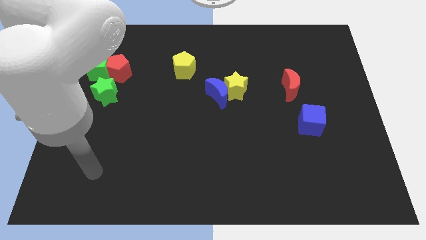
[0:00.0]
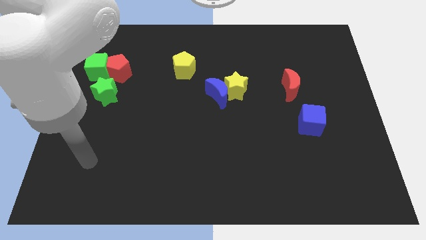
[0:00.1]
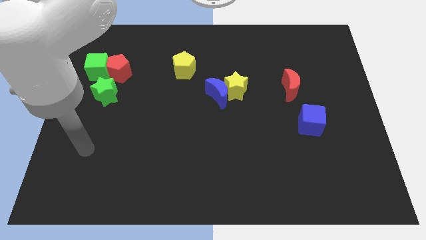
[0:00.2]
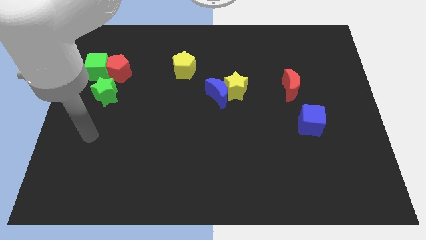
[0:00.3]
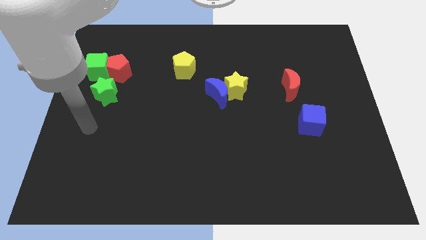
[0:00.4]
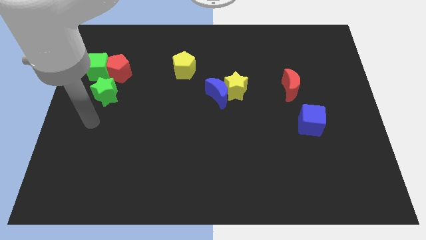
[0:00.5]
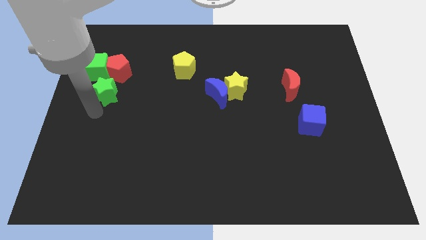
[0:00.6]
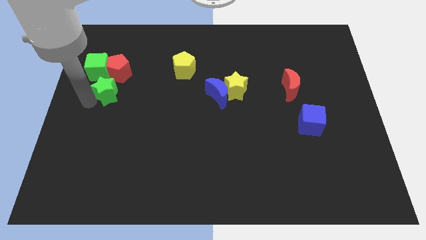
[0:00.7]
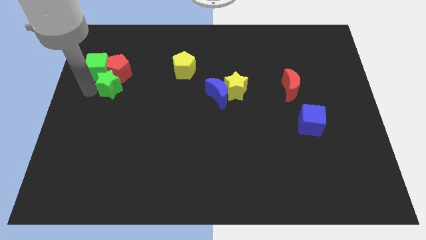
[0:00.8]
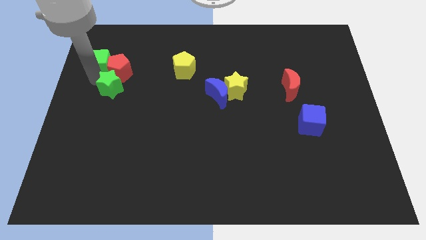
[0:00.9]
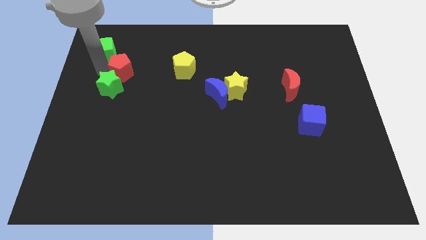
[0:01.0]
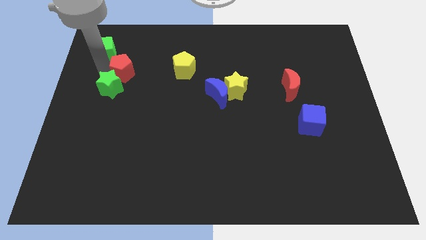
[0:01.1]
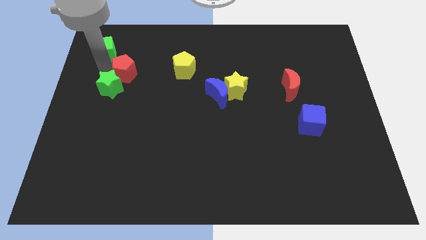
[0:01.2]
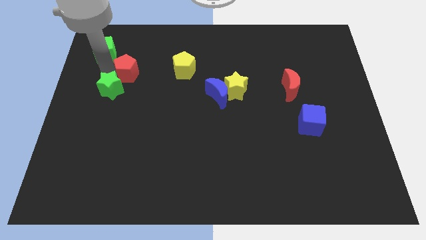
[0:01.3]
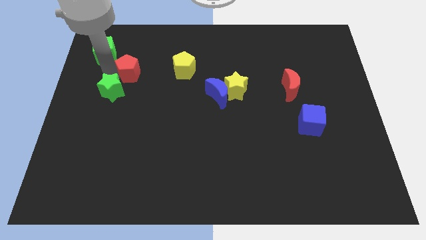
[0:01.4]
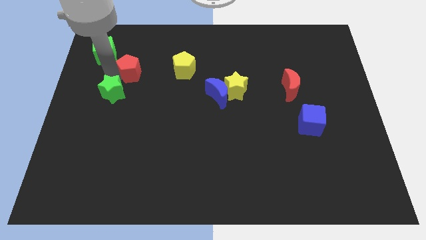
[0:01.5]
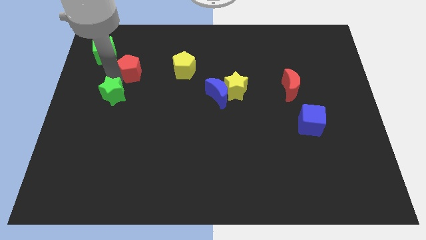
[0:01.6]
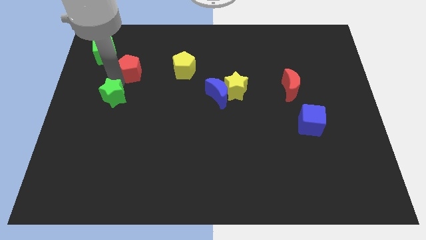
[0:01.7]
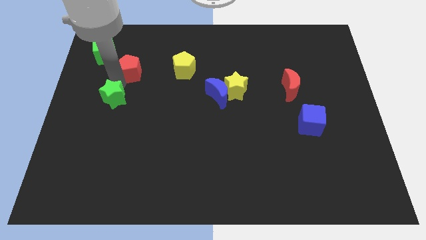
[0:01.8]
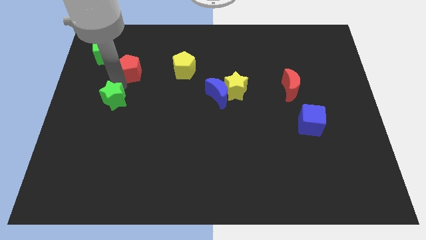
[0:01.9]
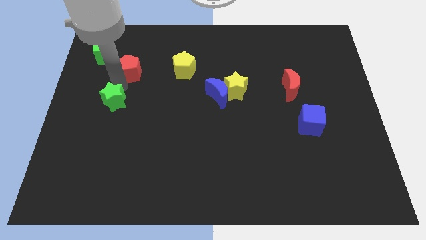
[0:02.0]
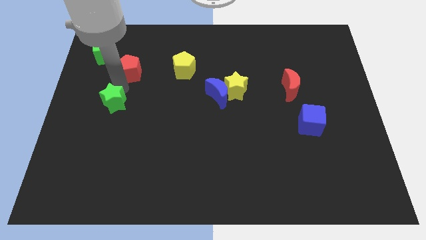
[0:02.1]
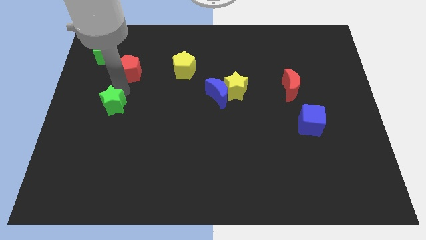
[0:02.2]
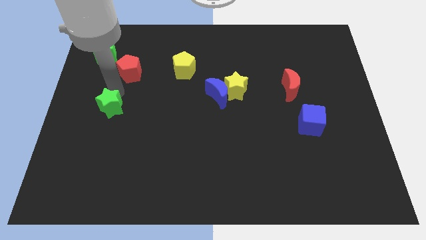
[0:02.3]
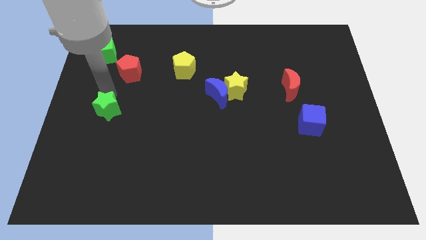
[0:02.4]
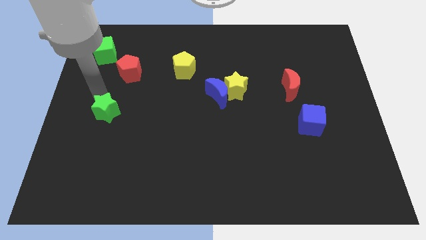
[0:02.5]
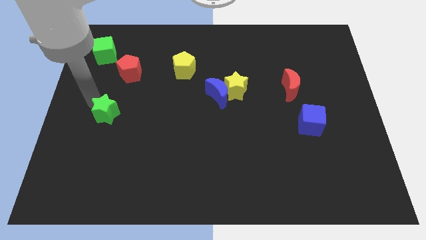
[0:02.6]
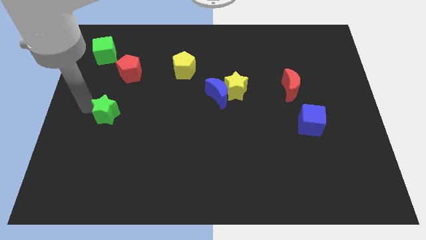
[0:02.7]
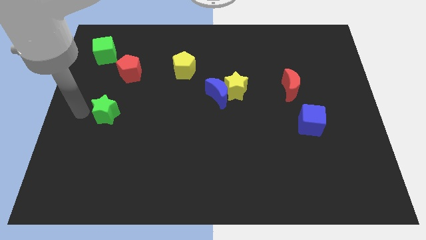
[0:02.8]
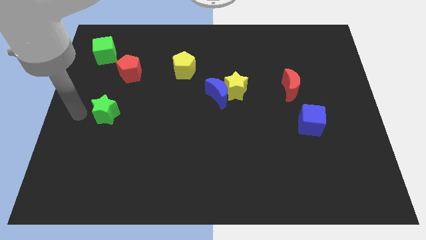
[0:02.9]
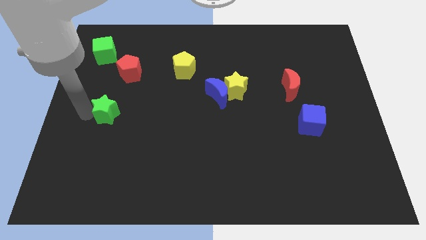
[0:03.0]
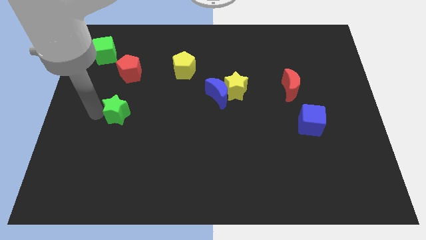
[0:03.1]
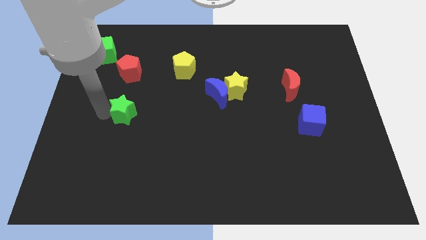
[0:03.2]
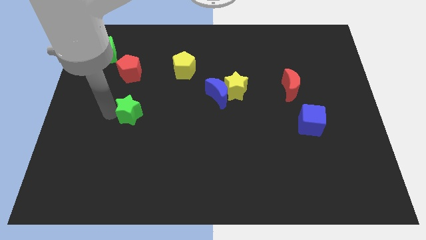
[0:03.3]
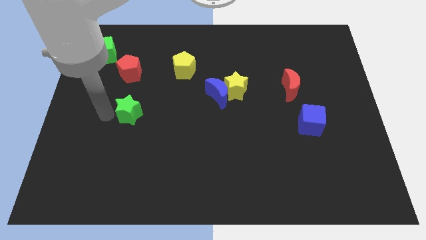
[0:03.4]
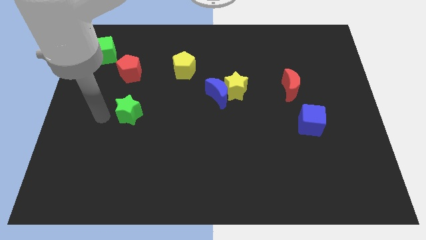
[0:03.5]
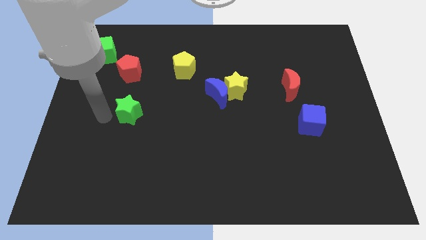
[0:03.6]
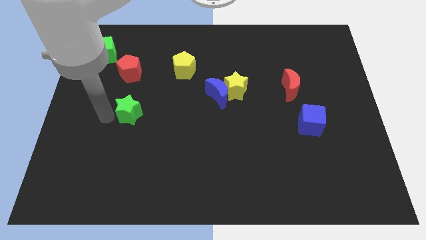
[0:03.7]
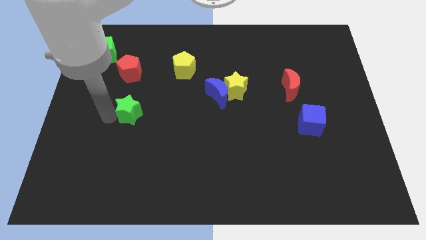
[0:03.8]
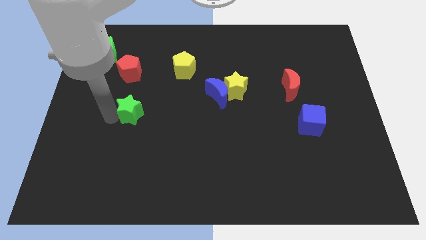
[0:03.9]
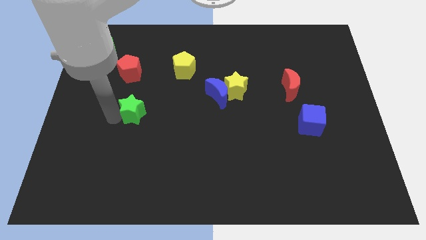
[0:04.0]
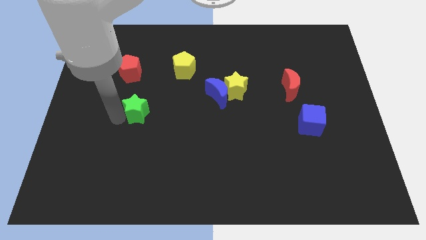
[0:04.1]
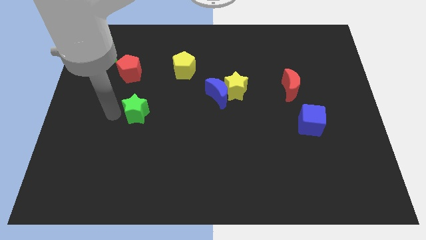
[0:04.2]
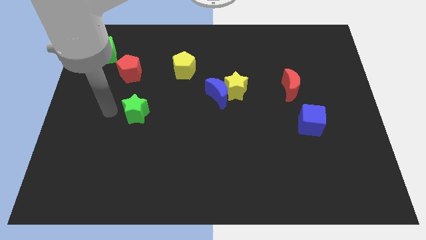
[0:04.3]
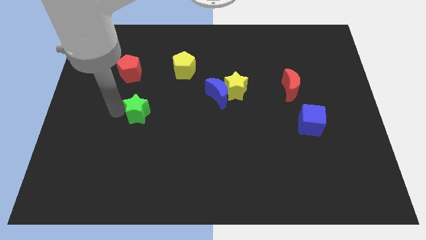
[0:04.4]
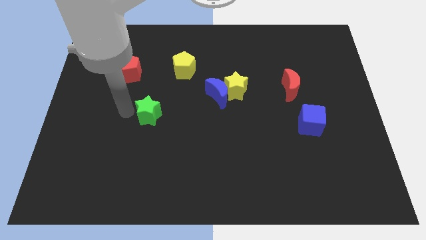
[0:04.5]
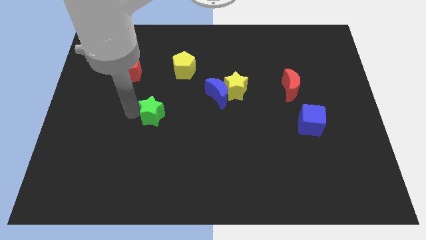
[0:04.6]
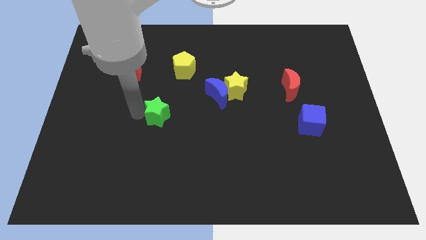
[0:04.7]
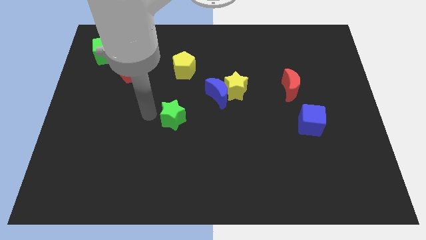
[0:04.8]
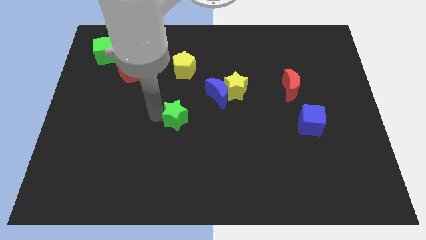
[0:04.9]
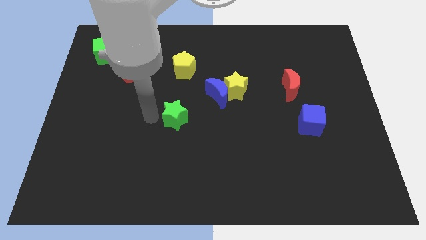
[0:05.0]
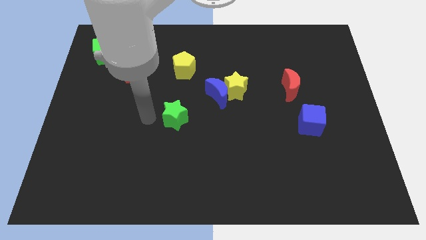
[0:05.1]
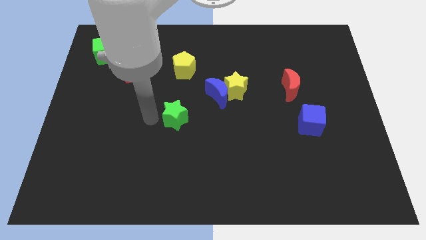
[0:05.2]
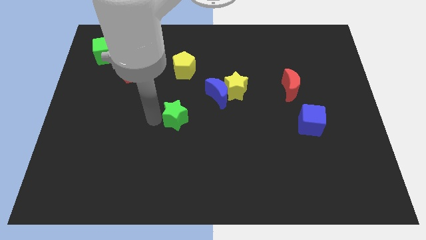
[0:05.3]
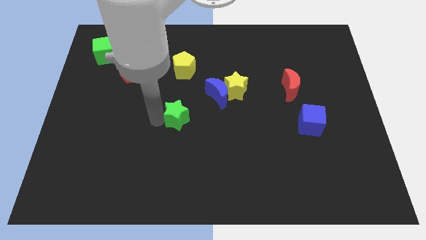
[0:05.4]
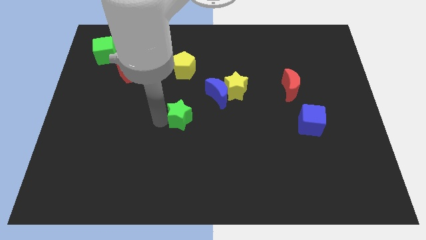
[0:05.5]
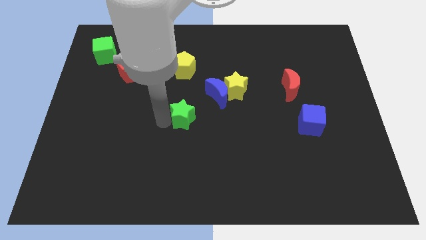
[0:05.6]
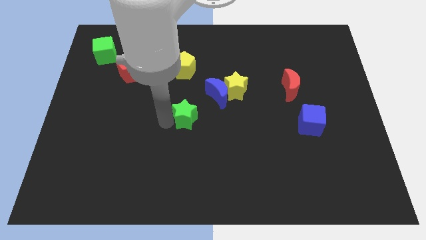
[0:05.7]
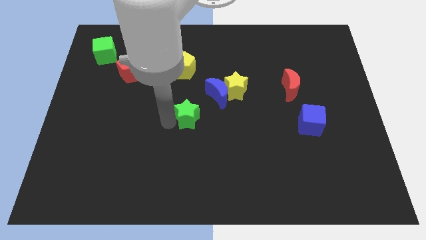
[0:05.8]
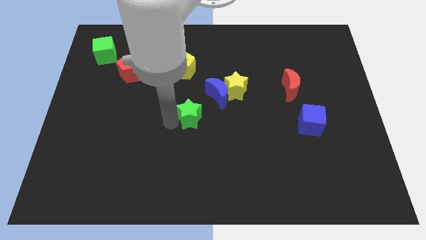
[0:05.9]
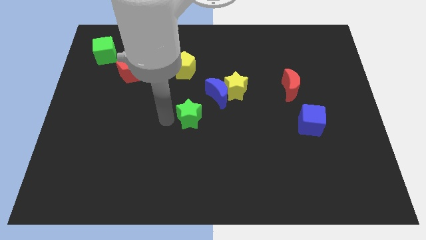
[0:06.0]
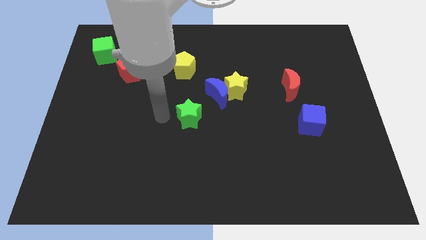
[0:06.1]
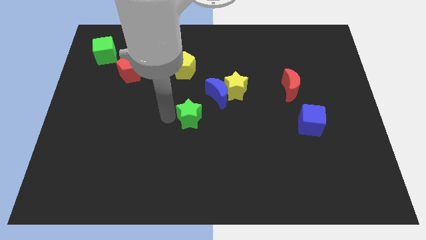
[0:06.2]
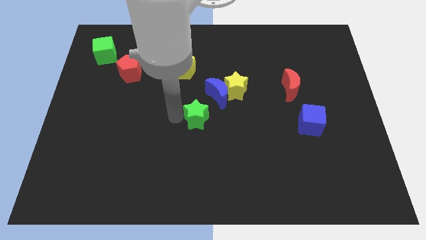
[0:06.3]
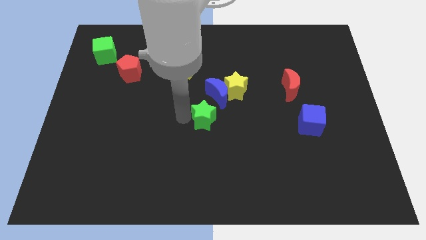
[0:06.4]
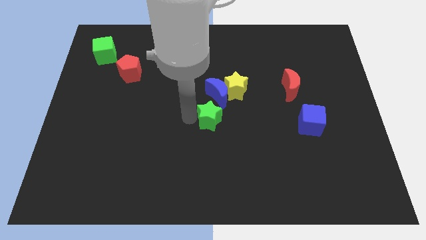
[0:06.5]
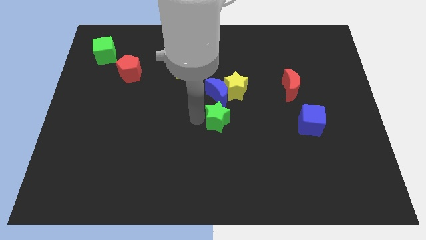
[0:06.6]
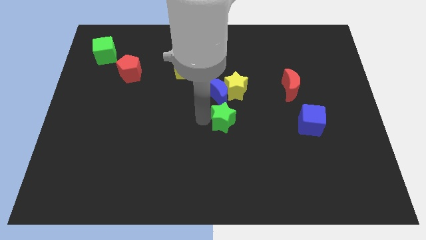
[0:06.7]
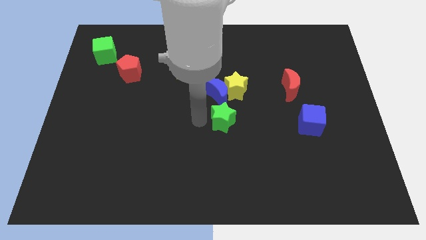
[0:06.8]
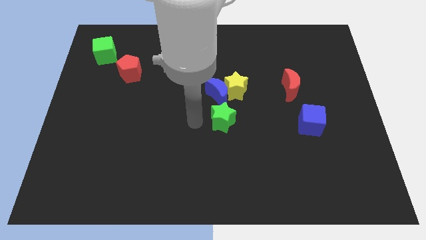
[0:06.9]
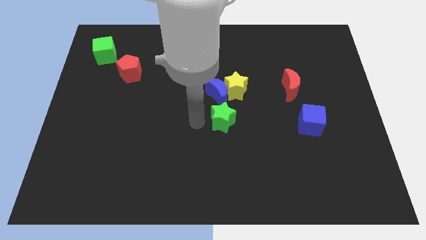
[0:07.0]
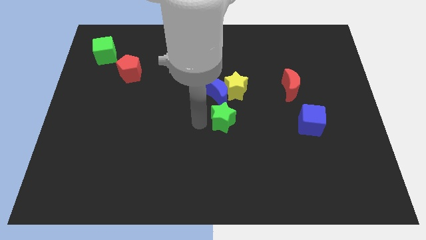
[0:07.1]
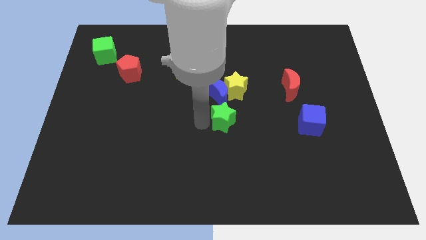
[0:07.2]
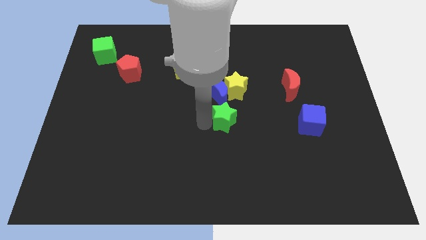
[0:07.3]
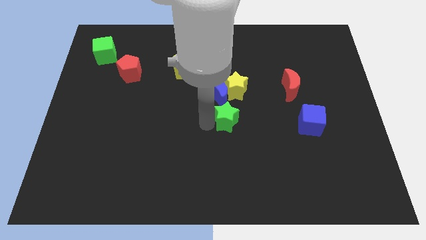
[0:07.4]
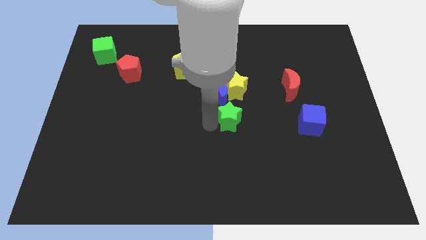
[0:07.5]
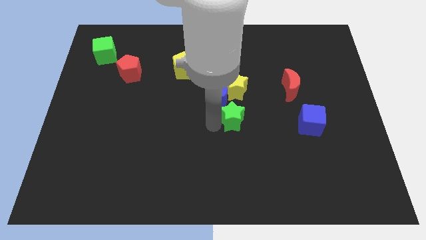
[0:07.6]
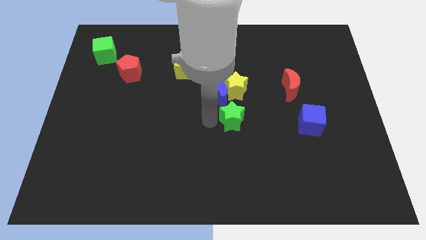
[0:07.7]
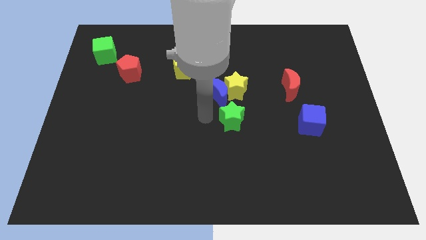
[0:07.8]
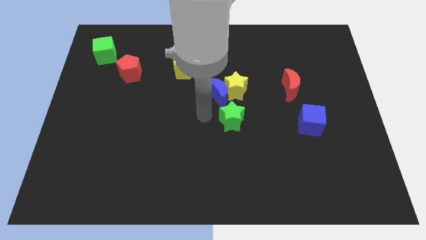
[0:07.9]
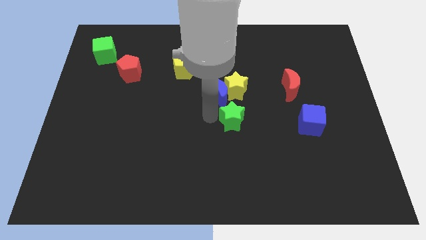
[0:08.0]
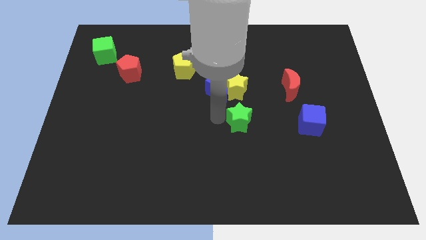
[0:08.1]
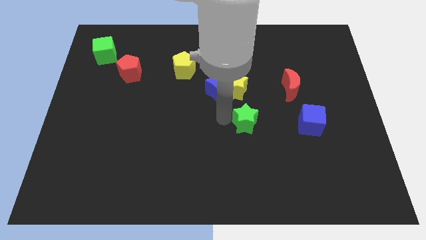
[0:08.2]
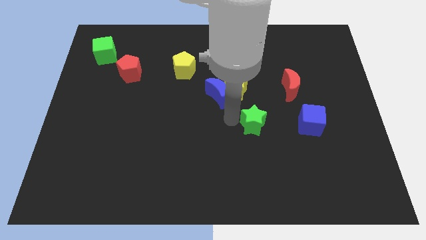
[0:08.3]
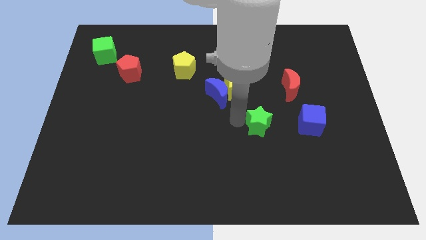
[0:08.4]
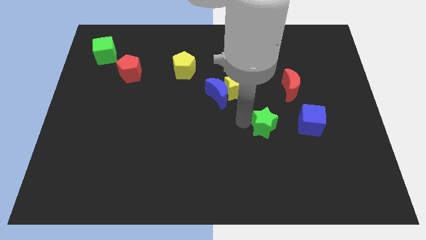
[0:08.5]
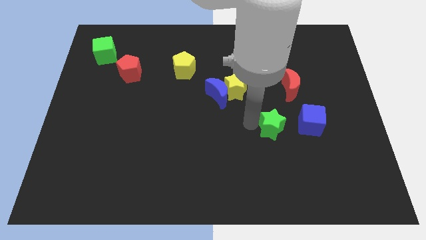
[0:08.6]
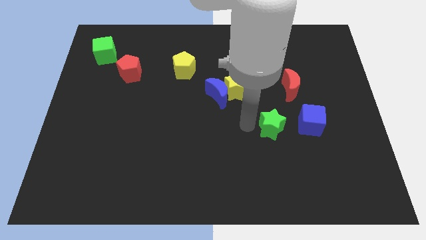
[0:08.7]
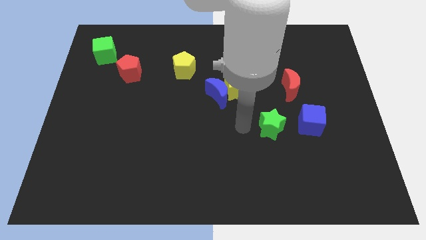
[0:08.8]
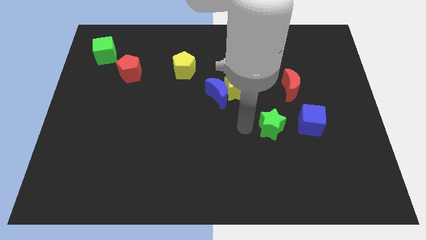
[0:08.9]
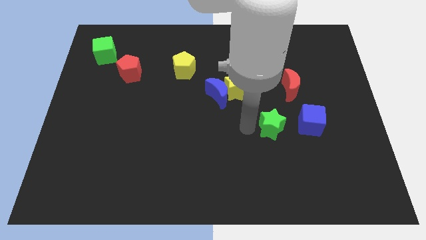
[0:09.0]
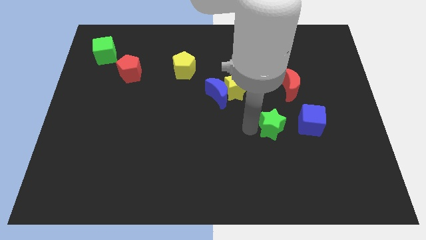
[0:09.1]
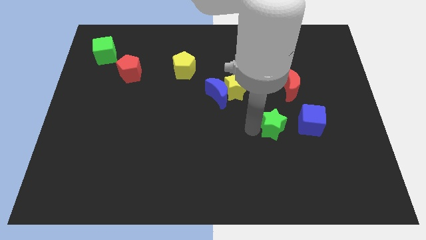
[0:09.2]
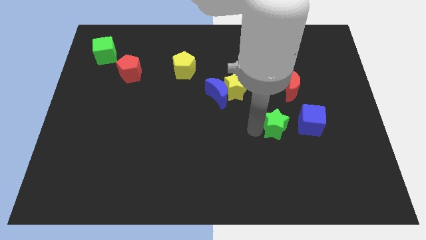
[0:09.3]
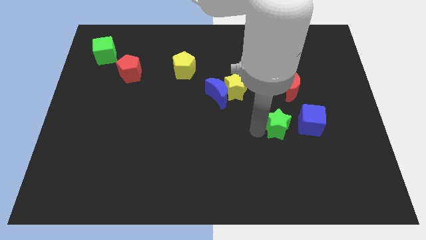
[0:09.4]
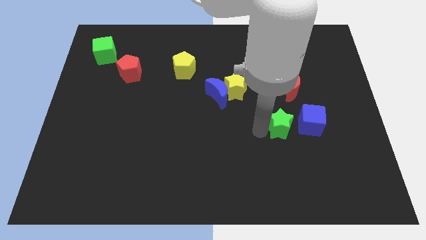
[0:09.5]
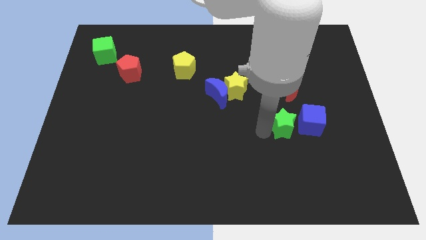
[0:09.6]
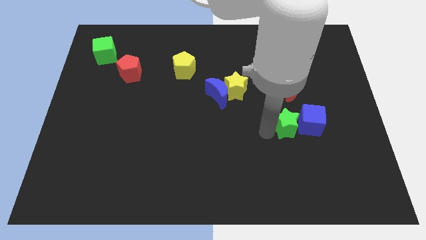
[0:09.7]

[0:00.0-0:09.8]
slide the green star towards the blue cube
